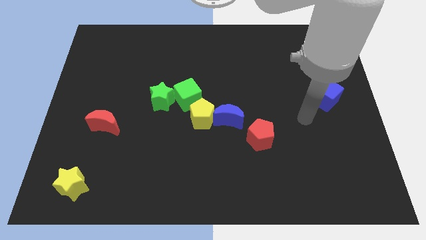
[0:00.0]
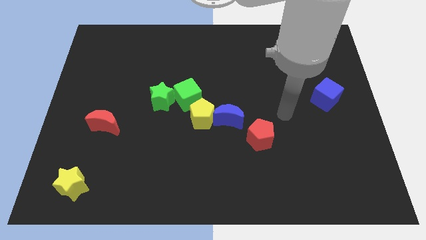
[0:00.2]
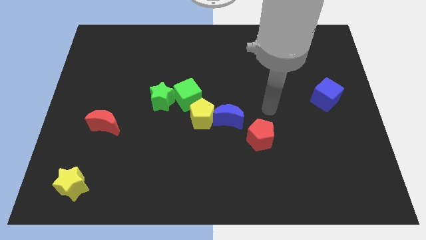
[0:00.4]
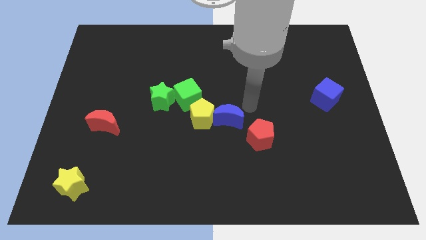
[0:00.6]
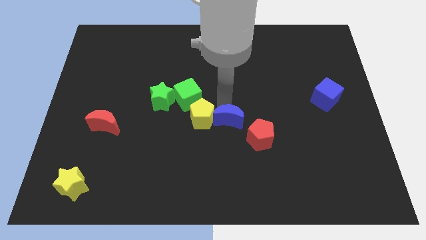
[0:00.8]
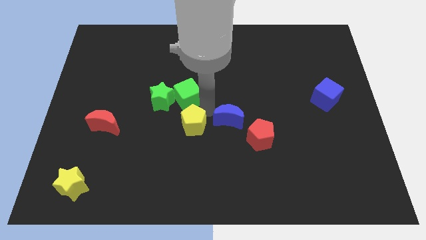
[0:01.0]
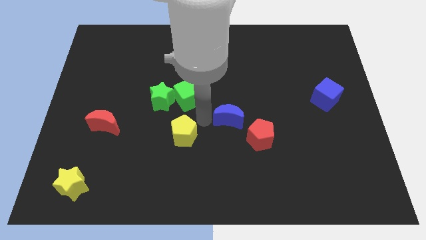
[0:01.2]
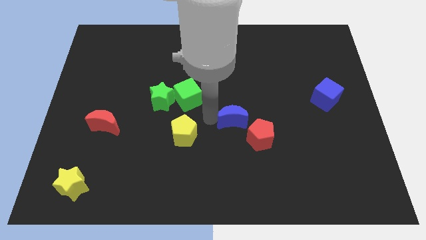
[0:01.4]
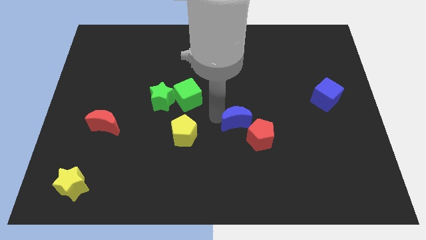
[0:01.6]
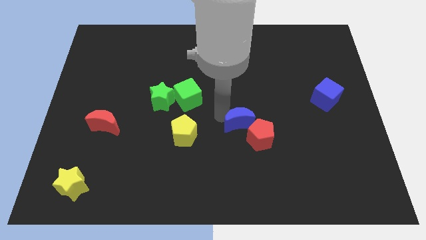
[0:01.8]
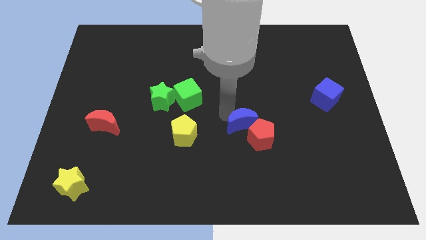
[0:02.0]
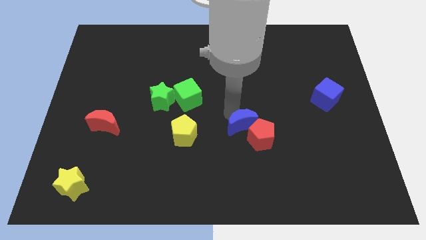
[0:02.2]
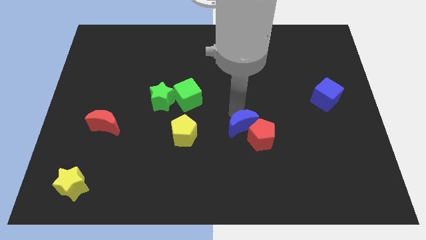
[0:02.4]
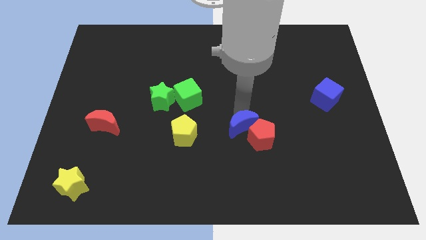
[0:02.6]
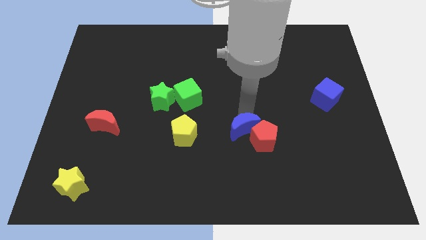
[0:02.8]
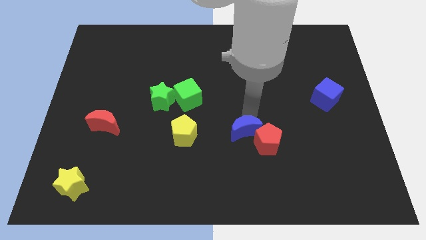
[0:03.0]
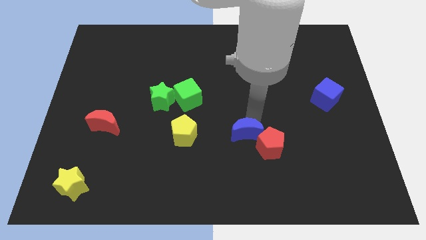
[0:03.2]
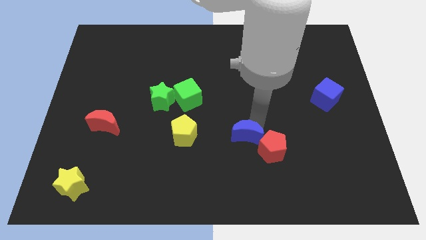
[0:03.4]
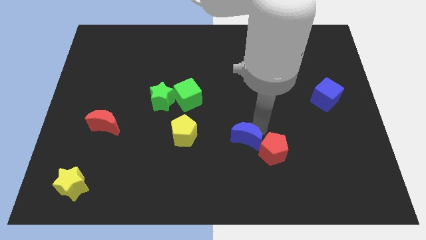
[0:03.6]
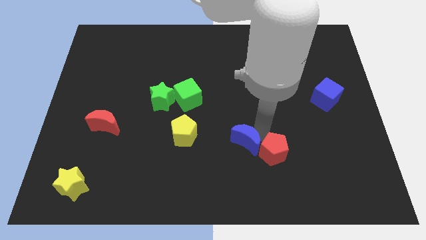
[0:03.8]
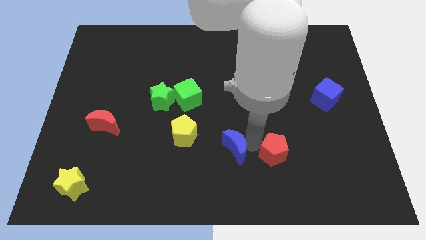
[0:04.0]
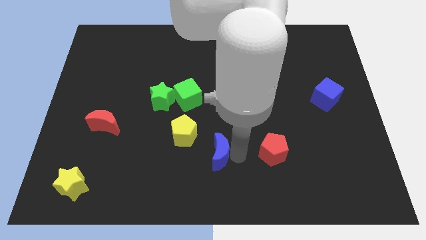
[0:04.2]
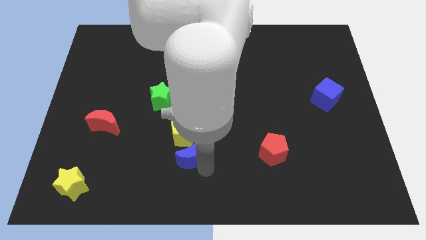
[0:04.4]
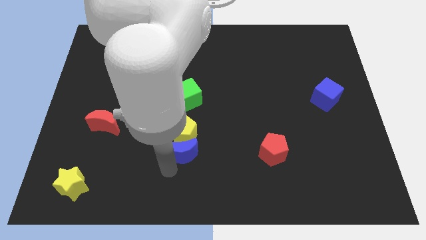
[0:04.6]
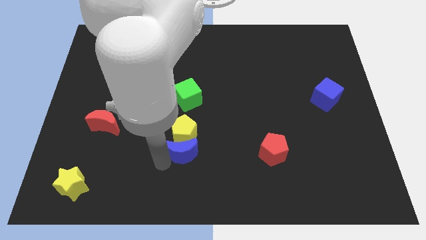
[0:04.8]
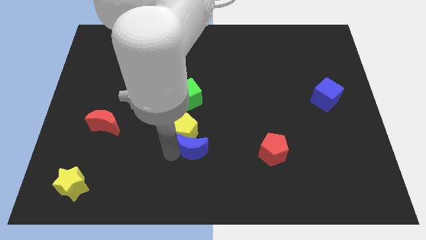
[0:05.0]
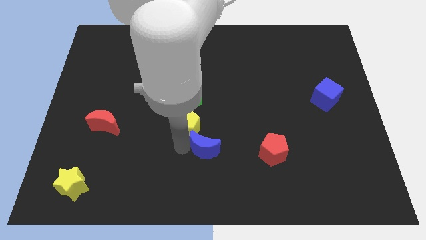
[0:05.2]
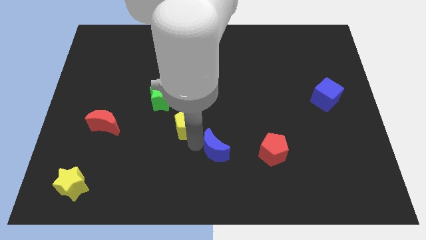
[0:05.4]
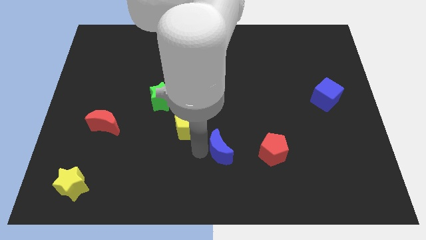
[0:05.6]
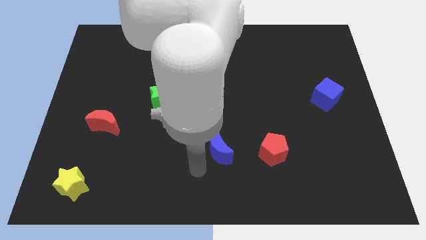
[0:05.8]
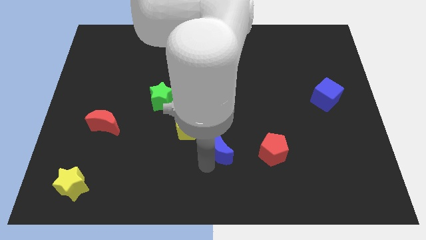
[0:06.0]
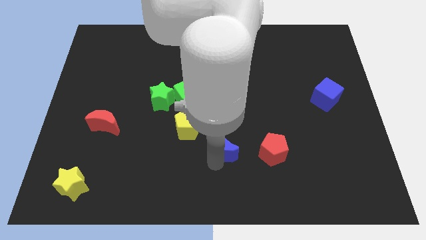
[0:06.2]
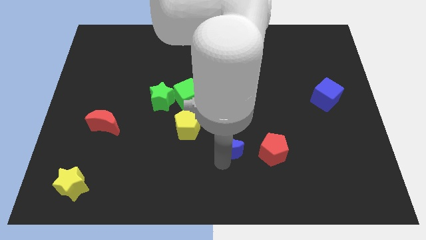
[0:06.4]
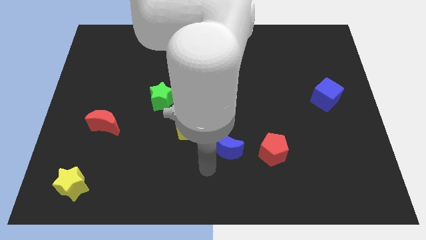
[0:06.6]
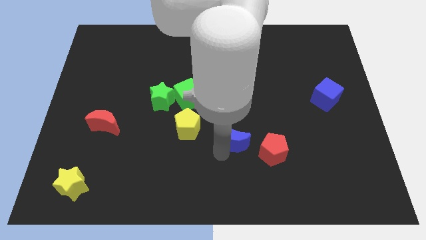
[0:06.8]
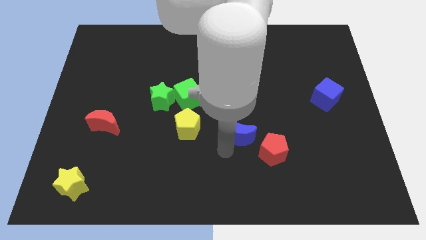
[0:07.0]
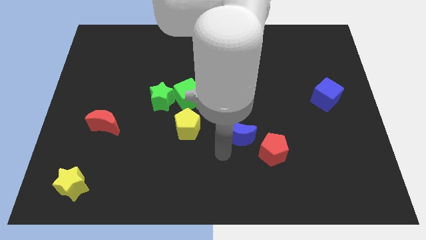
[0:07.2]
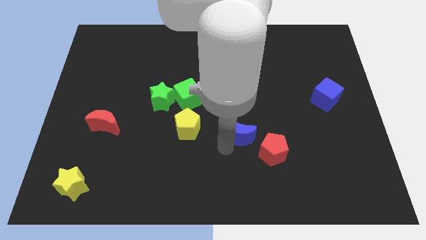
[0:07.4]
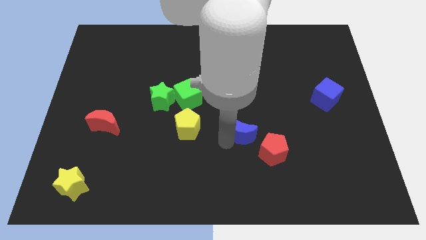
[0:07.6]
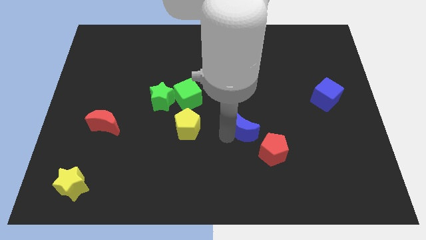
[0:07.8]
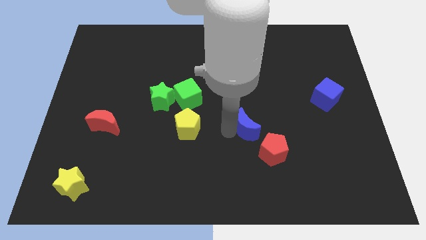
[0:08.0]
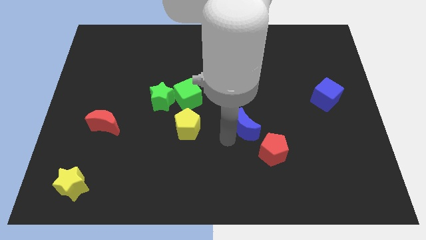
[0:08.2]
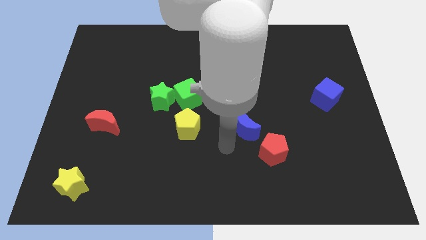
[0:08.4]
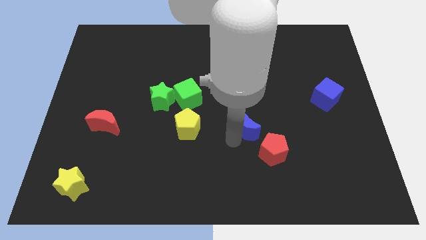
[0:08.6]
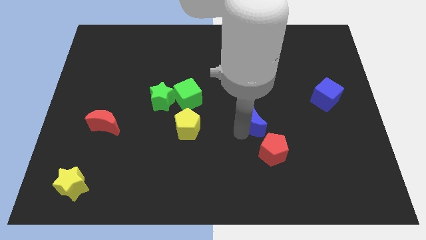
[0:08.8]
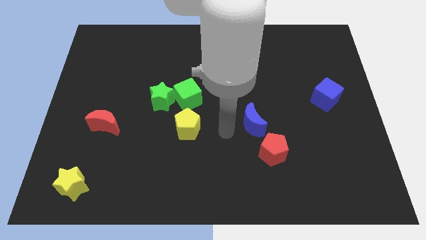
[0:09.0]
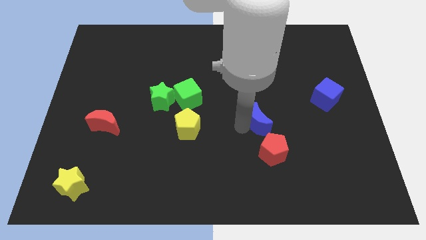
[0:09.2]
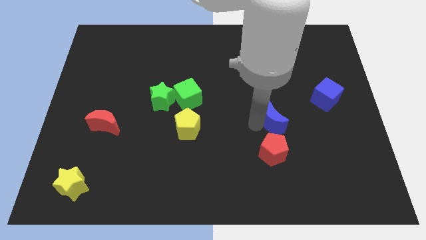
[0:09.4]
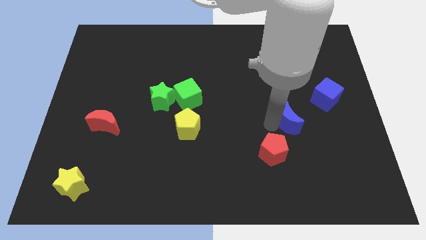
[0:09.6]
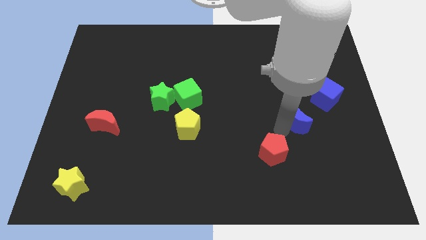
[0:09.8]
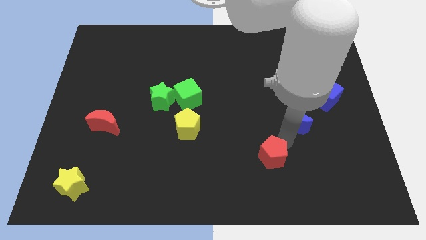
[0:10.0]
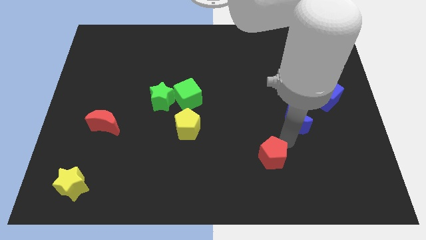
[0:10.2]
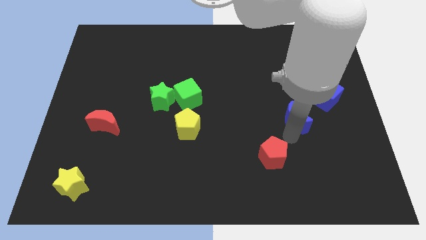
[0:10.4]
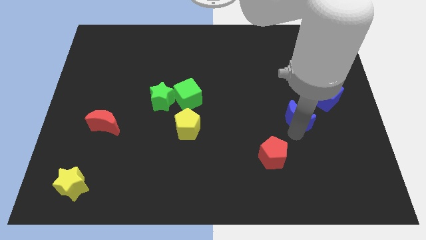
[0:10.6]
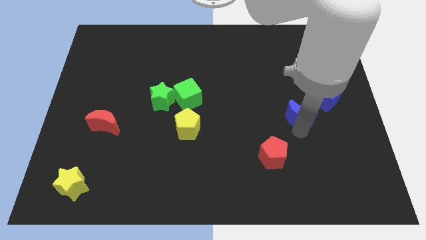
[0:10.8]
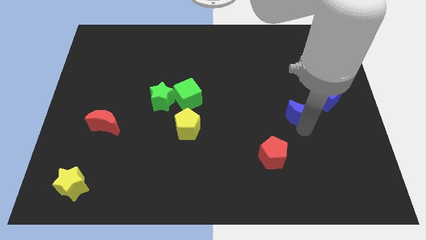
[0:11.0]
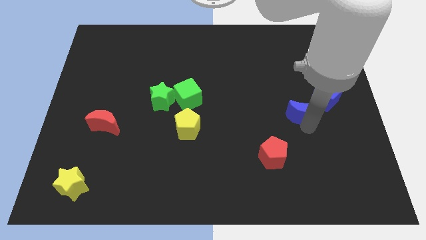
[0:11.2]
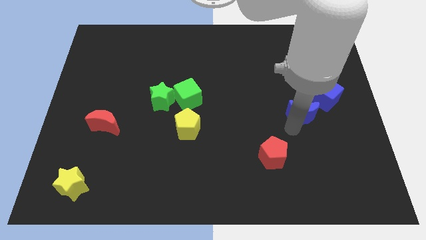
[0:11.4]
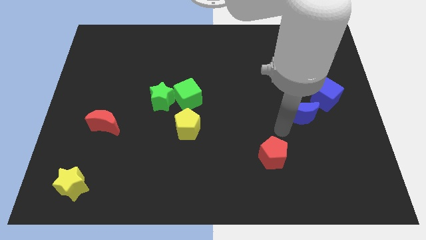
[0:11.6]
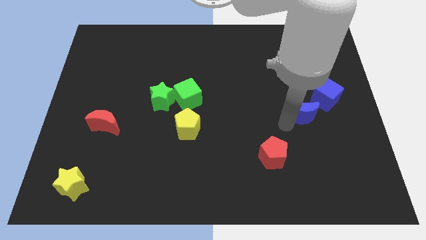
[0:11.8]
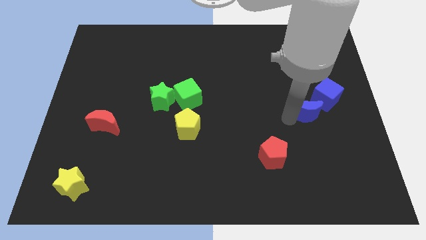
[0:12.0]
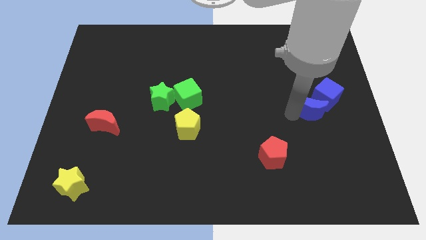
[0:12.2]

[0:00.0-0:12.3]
slide the blue moon towards the blue cube

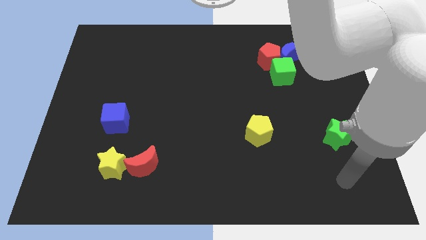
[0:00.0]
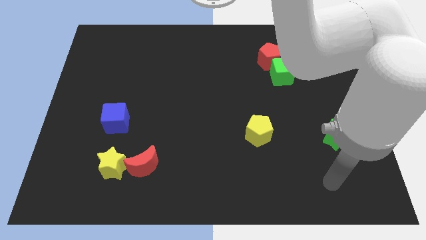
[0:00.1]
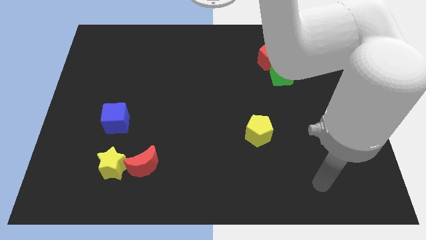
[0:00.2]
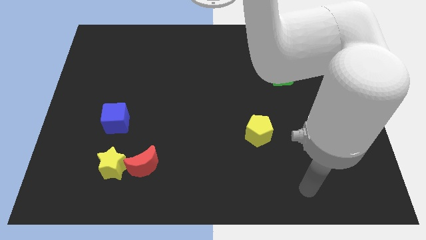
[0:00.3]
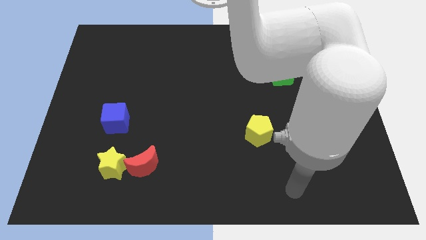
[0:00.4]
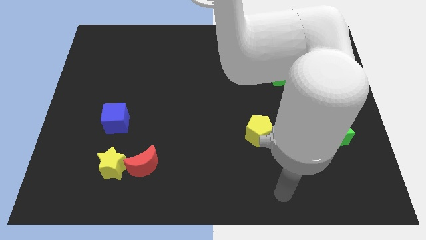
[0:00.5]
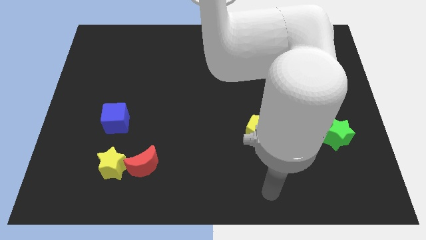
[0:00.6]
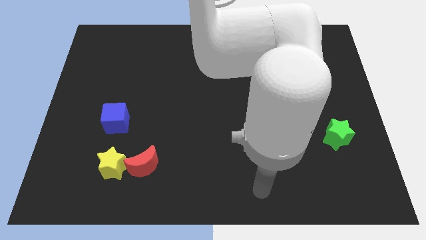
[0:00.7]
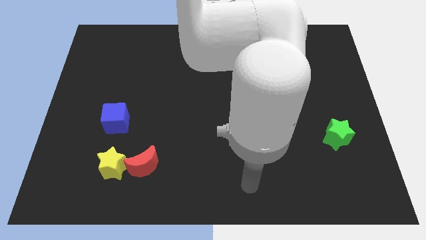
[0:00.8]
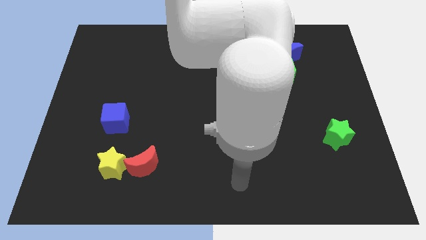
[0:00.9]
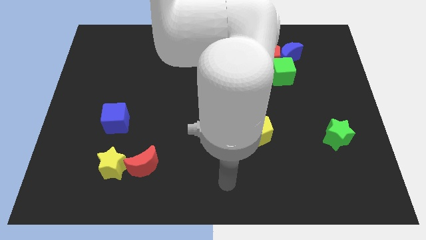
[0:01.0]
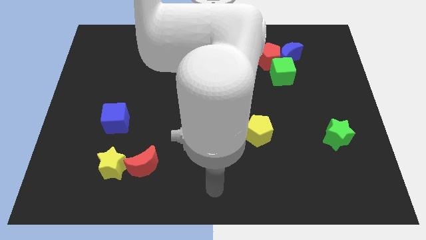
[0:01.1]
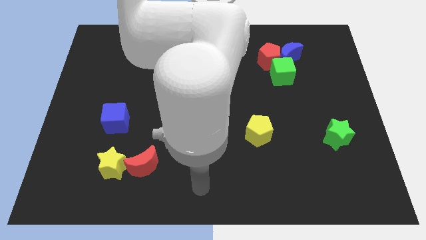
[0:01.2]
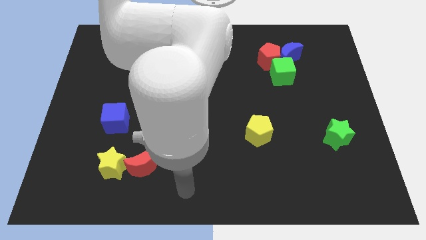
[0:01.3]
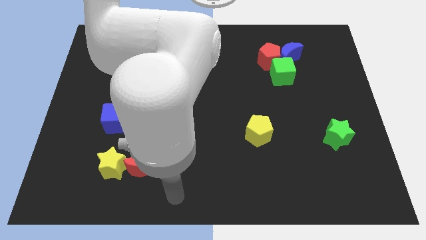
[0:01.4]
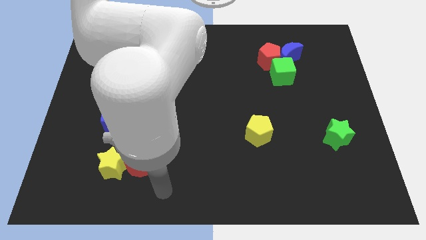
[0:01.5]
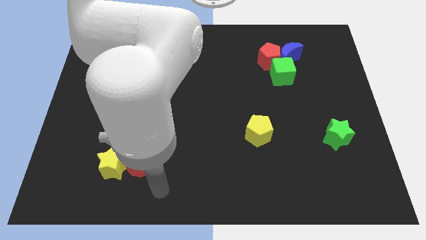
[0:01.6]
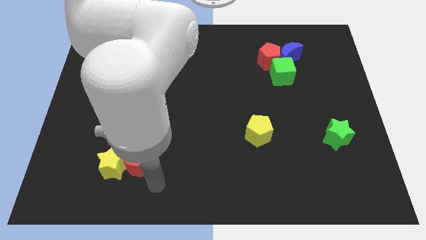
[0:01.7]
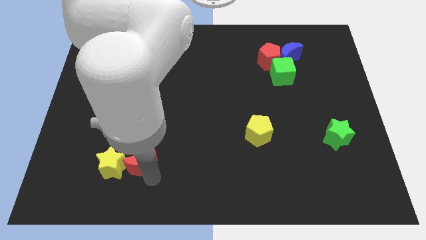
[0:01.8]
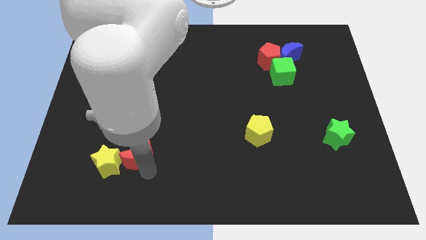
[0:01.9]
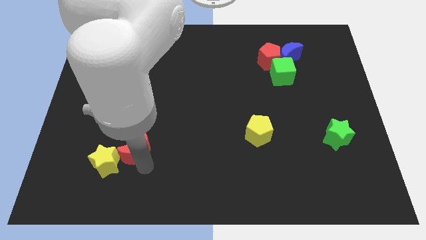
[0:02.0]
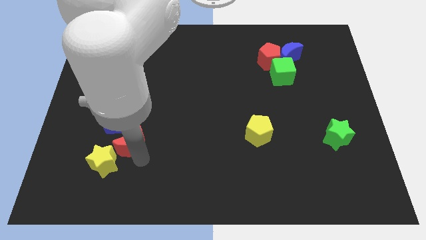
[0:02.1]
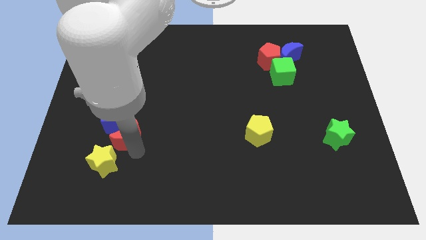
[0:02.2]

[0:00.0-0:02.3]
slide the red moon towards the blue cube
